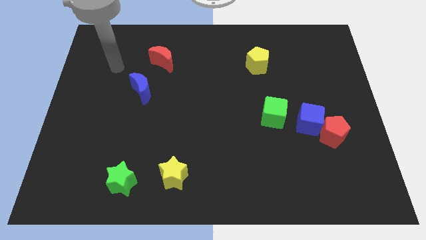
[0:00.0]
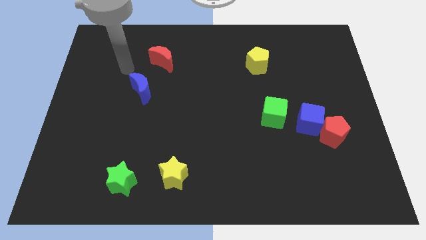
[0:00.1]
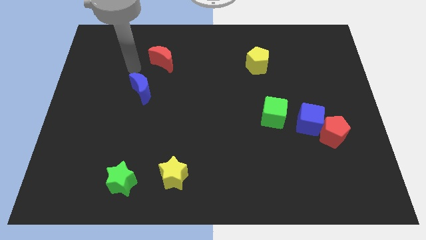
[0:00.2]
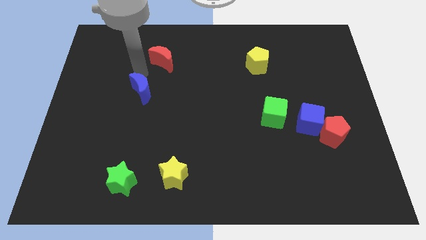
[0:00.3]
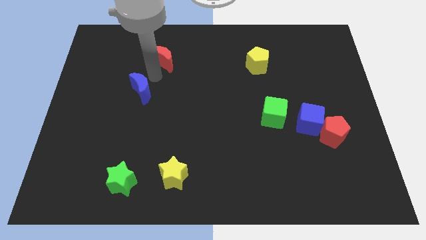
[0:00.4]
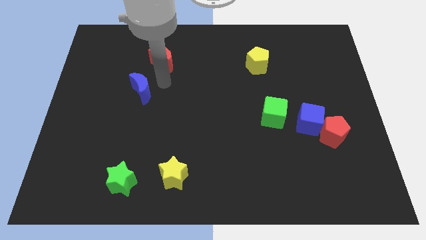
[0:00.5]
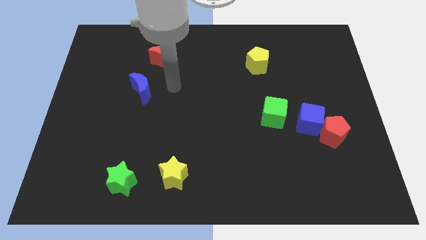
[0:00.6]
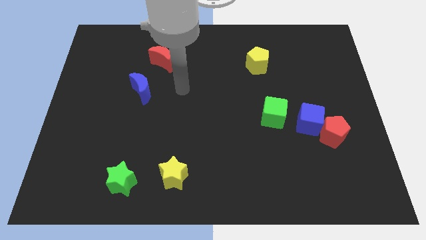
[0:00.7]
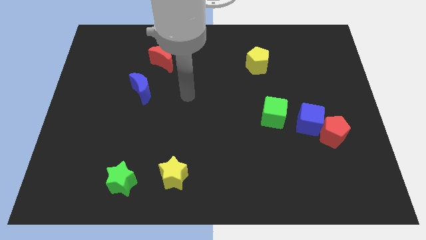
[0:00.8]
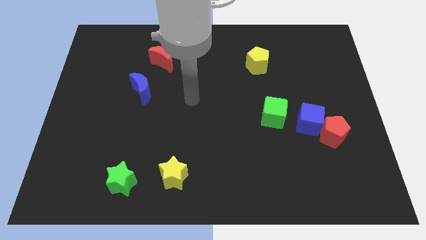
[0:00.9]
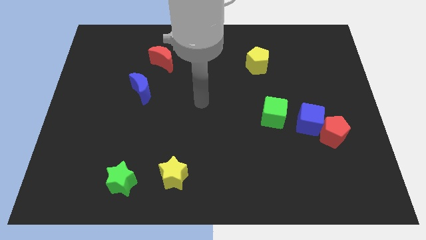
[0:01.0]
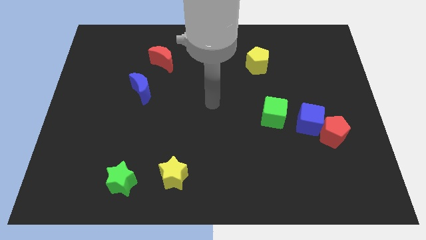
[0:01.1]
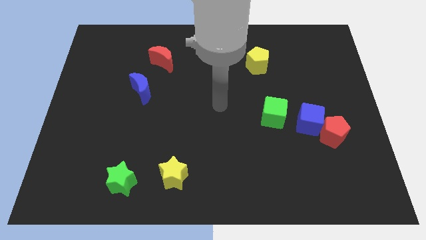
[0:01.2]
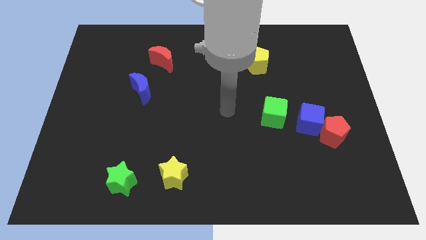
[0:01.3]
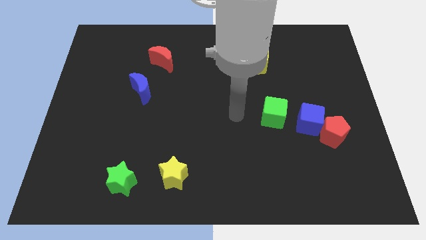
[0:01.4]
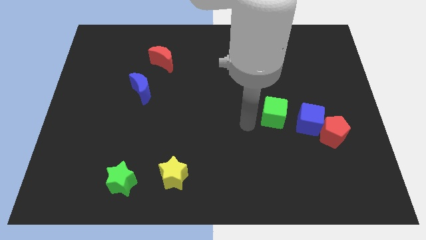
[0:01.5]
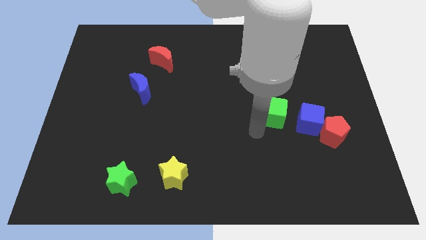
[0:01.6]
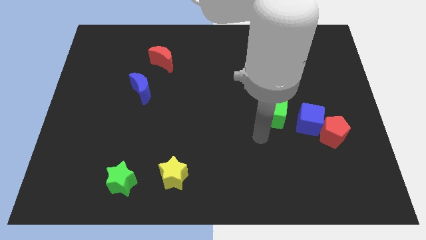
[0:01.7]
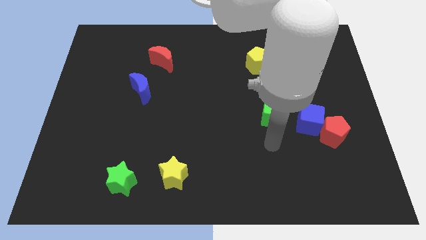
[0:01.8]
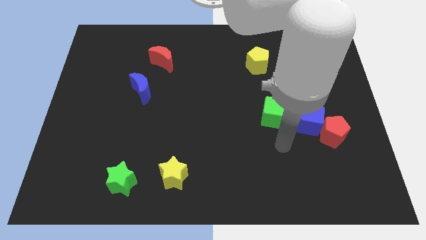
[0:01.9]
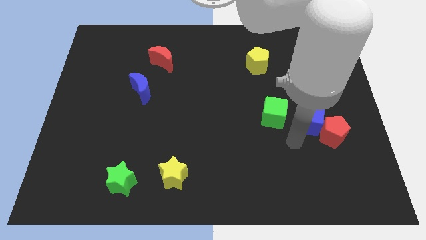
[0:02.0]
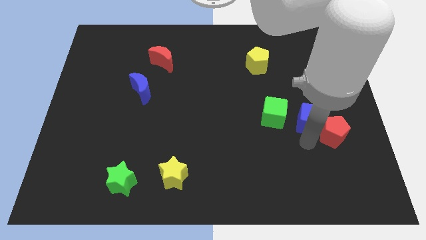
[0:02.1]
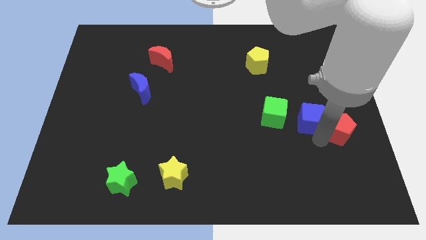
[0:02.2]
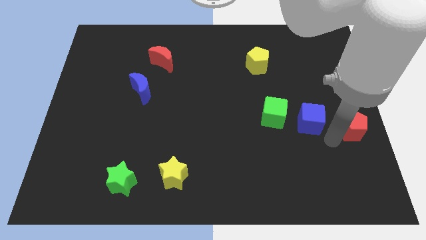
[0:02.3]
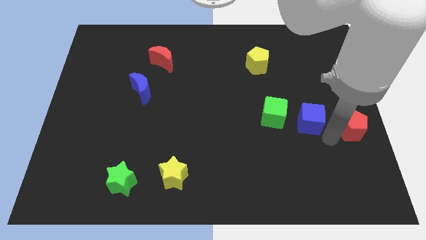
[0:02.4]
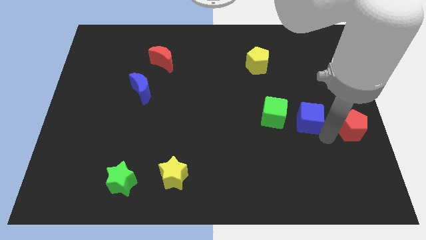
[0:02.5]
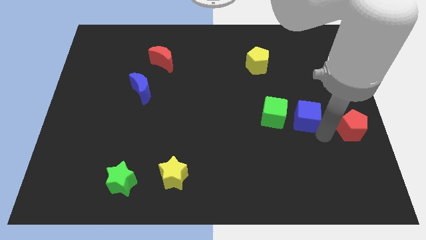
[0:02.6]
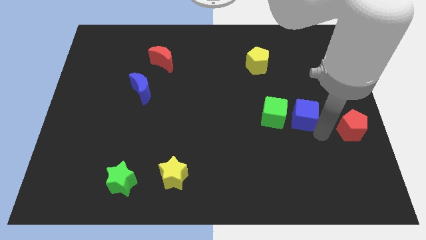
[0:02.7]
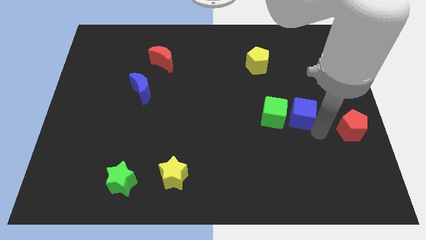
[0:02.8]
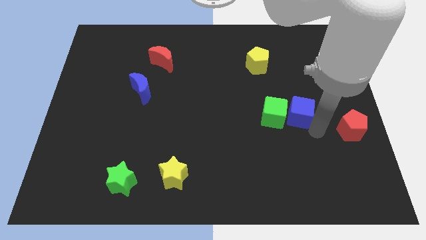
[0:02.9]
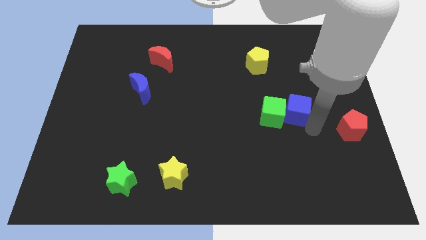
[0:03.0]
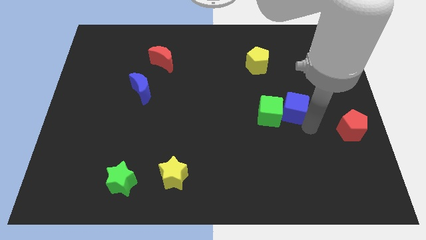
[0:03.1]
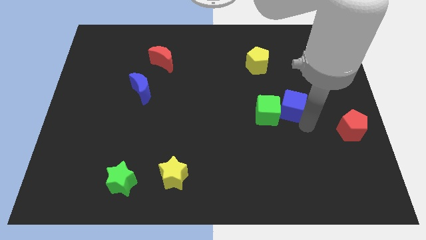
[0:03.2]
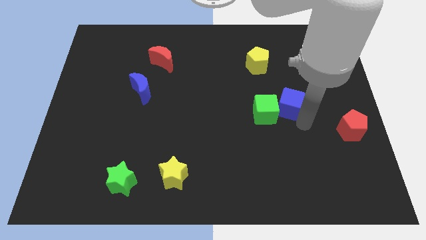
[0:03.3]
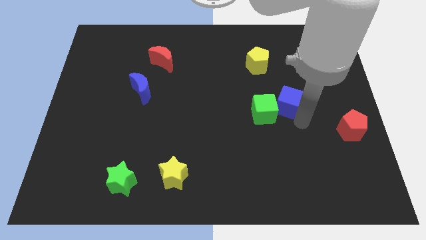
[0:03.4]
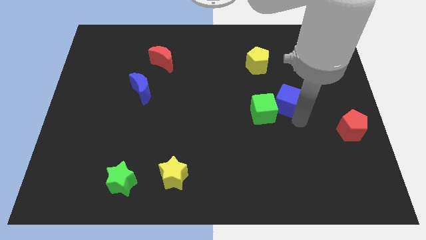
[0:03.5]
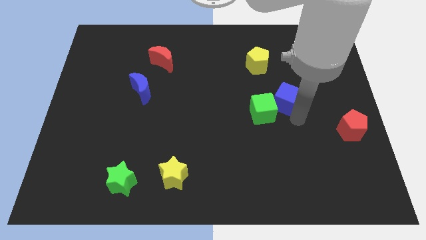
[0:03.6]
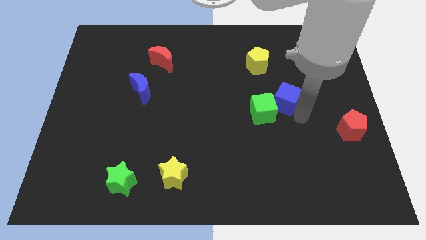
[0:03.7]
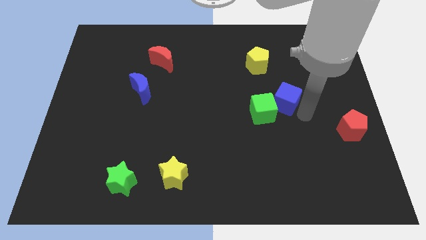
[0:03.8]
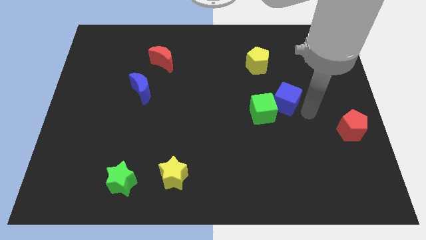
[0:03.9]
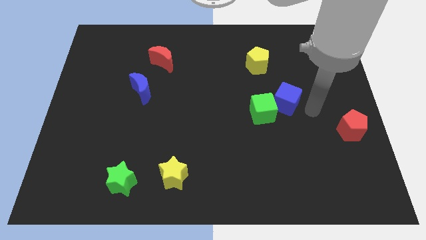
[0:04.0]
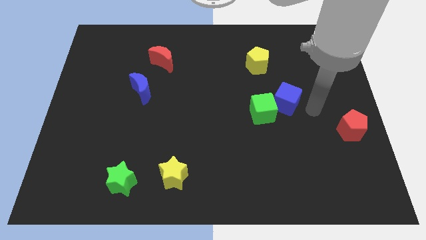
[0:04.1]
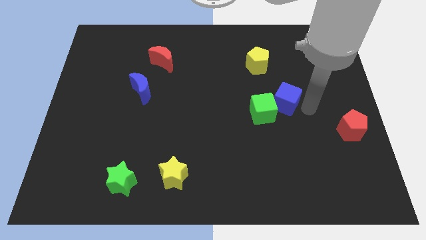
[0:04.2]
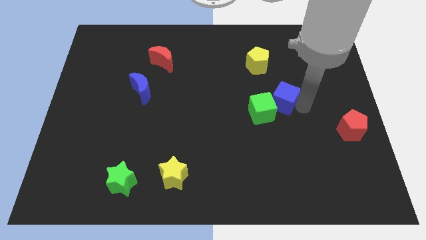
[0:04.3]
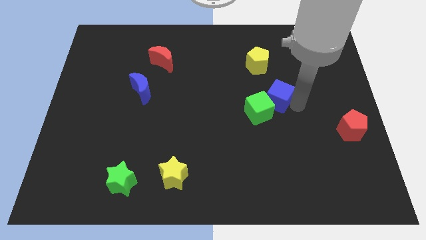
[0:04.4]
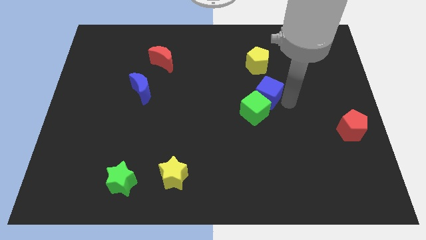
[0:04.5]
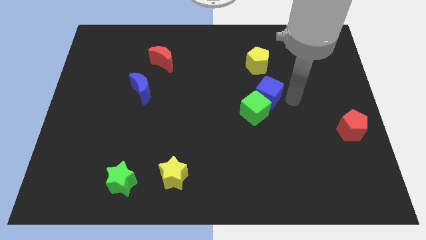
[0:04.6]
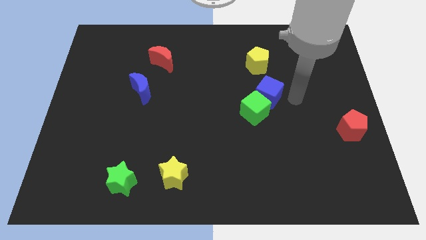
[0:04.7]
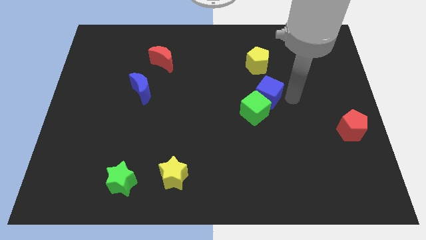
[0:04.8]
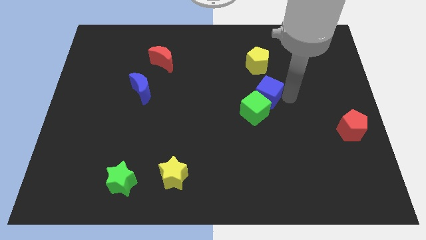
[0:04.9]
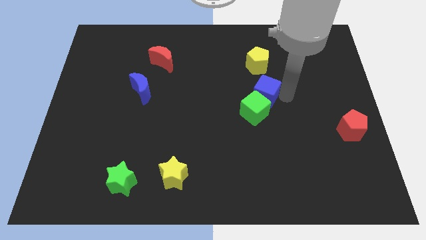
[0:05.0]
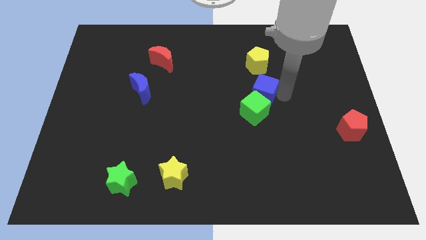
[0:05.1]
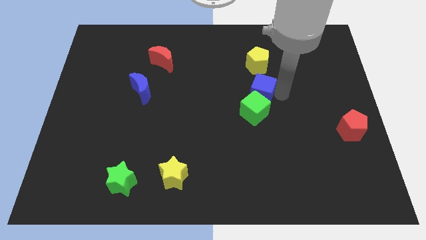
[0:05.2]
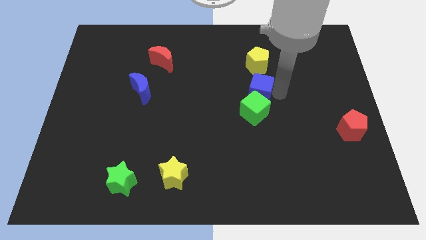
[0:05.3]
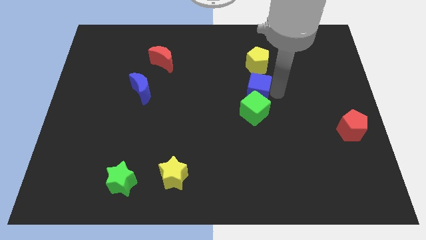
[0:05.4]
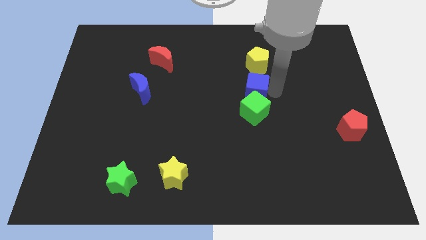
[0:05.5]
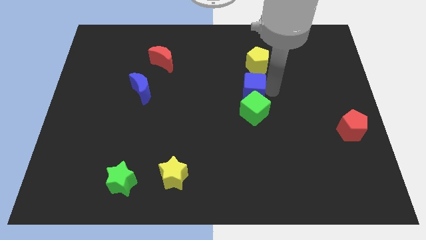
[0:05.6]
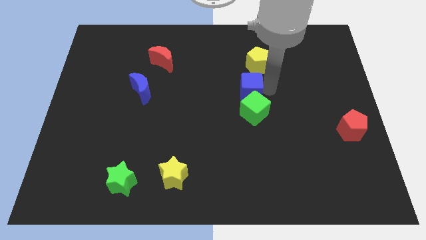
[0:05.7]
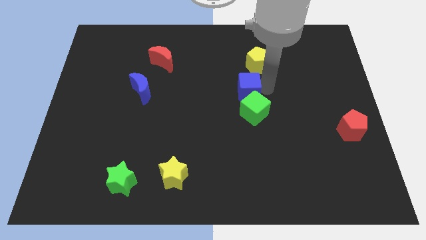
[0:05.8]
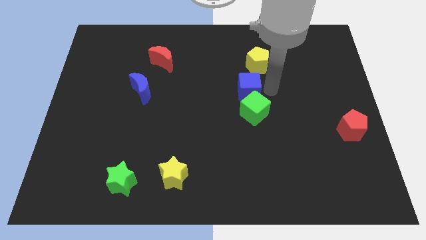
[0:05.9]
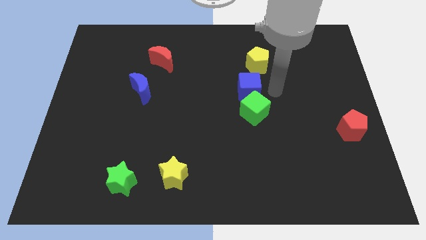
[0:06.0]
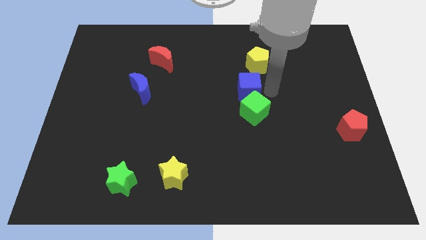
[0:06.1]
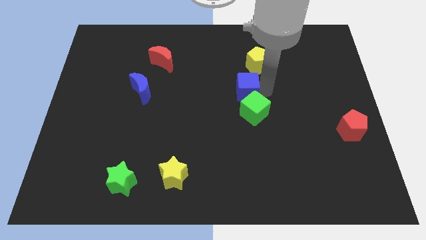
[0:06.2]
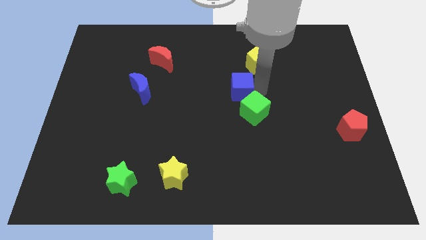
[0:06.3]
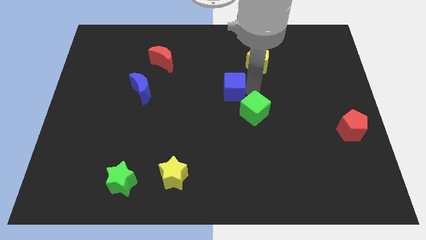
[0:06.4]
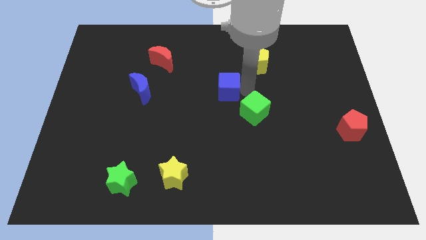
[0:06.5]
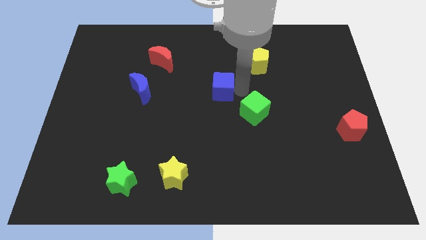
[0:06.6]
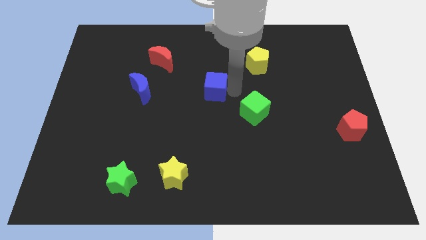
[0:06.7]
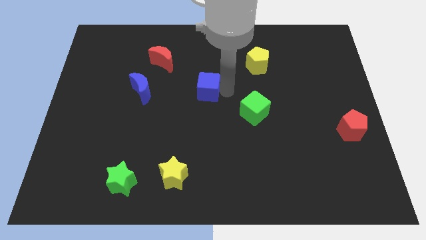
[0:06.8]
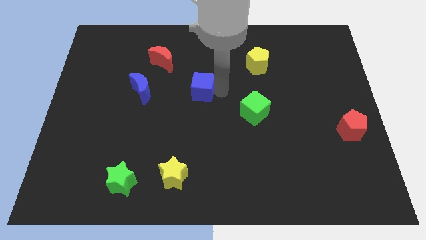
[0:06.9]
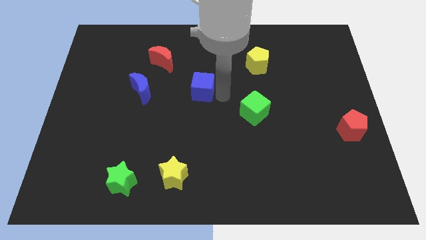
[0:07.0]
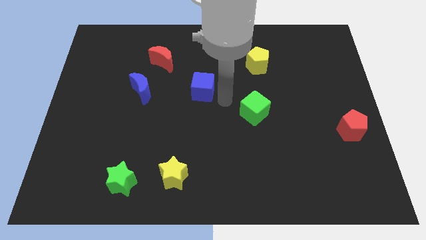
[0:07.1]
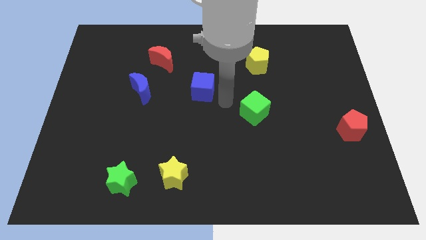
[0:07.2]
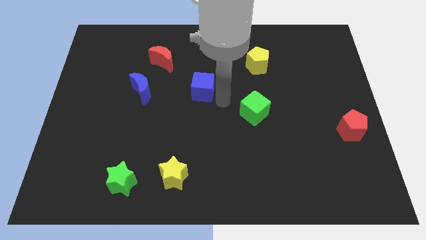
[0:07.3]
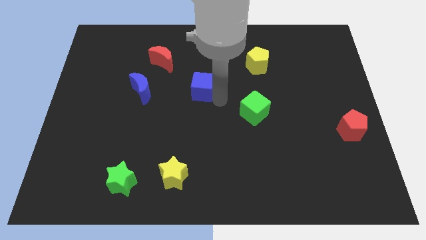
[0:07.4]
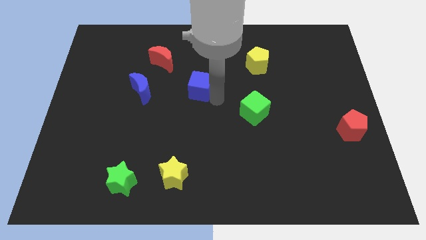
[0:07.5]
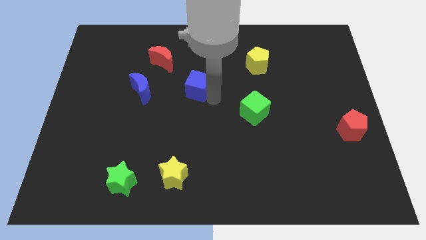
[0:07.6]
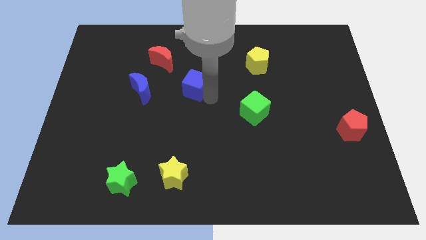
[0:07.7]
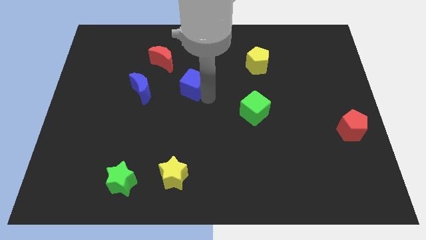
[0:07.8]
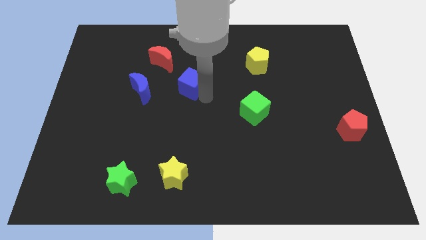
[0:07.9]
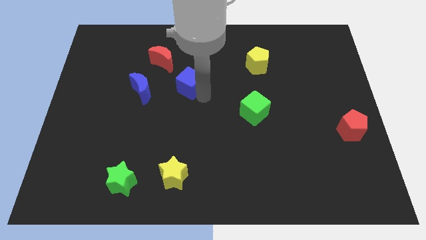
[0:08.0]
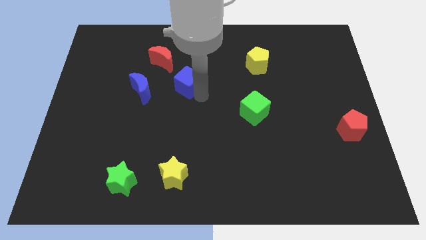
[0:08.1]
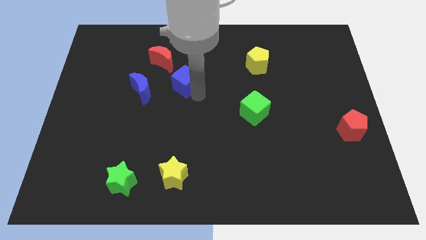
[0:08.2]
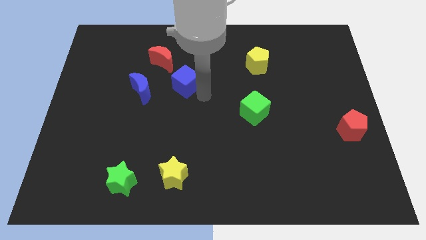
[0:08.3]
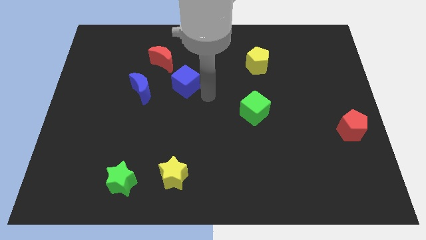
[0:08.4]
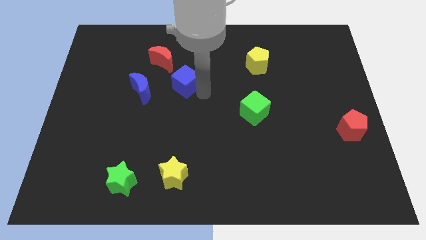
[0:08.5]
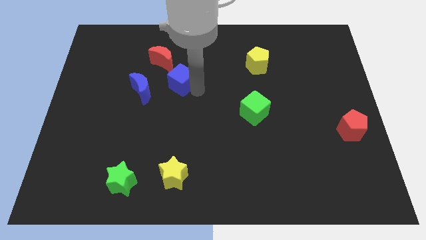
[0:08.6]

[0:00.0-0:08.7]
put the blue cube to the top right side of the blue moon
